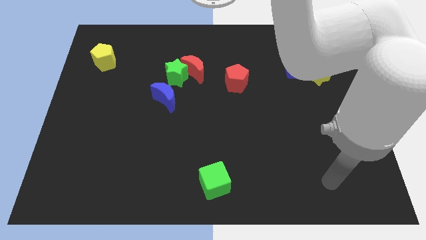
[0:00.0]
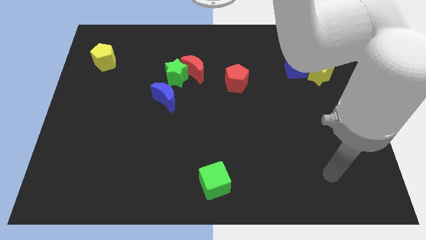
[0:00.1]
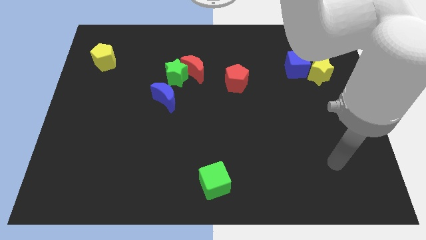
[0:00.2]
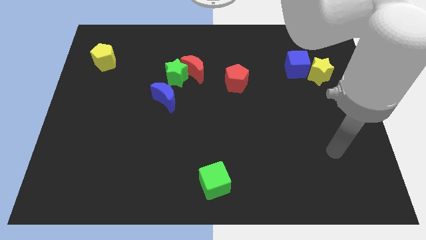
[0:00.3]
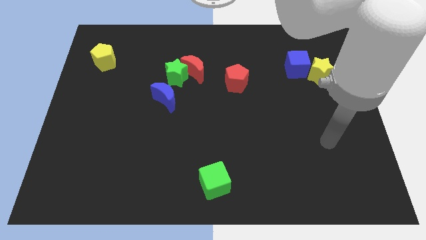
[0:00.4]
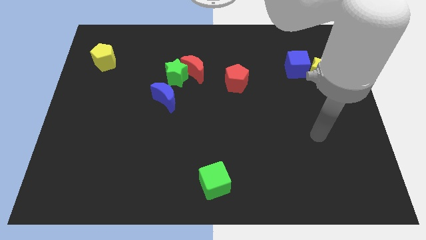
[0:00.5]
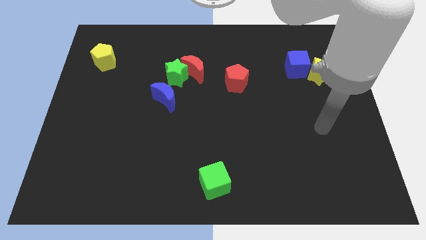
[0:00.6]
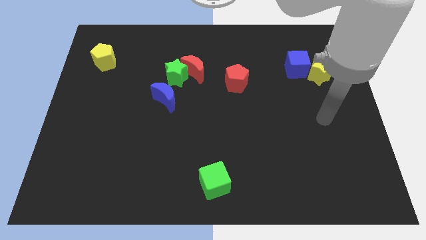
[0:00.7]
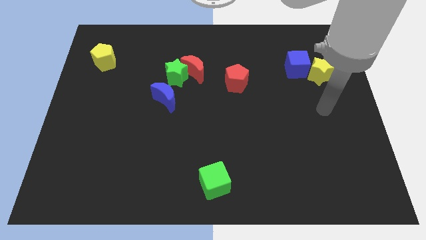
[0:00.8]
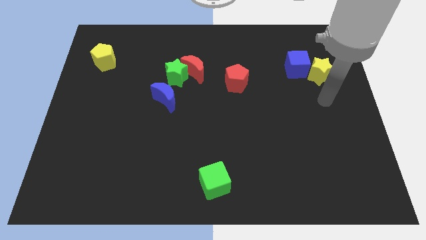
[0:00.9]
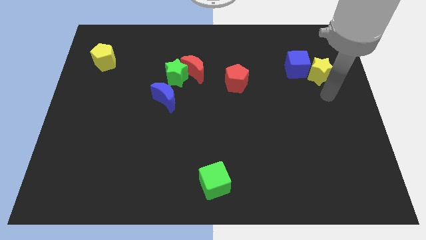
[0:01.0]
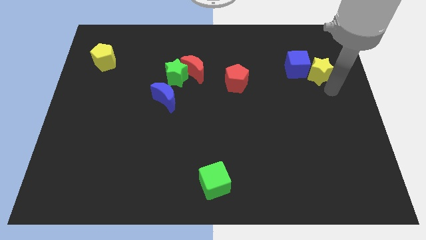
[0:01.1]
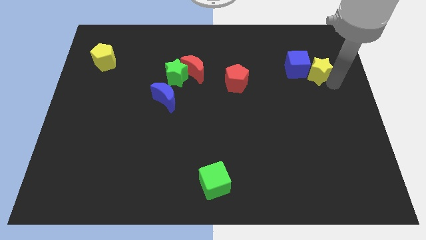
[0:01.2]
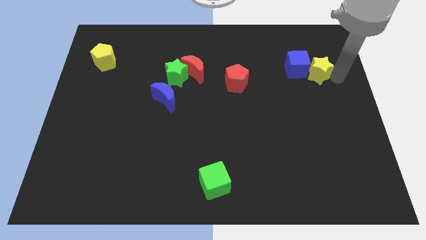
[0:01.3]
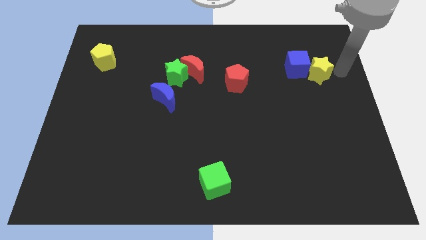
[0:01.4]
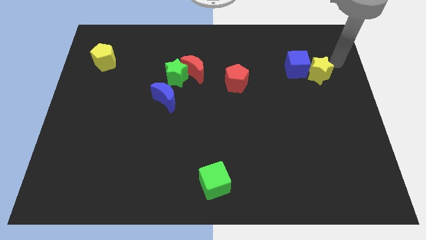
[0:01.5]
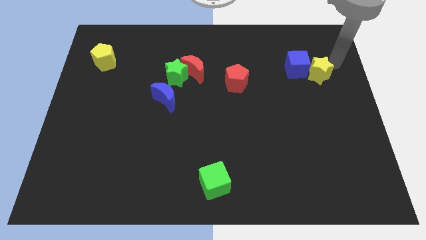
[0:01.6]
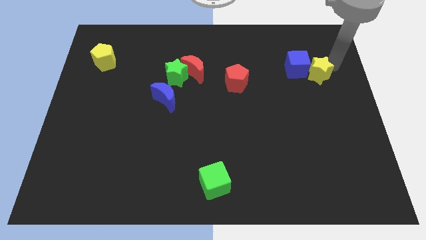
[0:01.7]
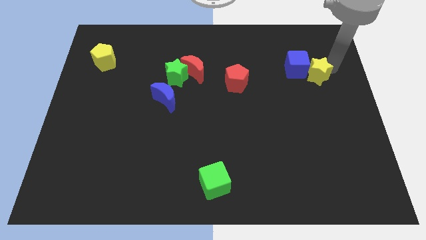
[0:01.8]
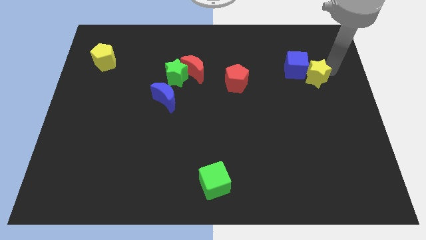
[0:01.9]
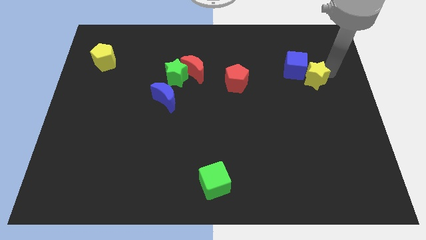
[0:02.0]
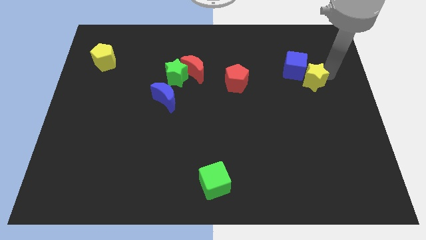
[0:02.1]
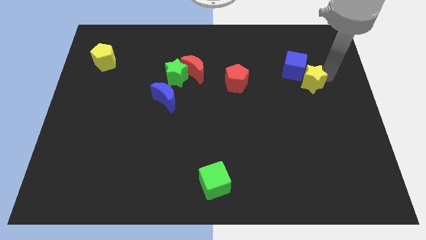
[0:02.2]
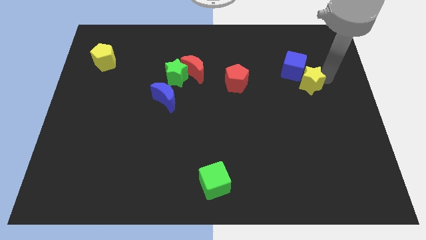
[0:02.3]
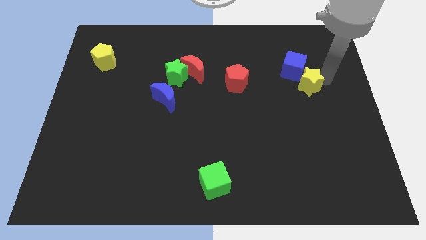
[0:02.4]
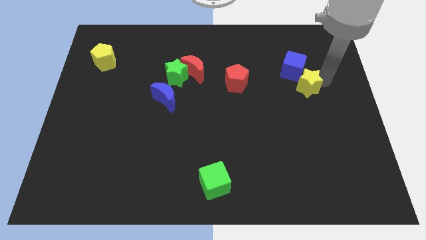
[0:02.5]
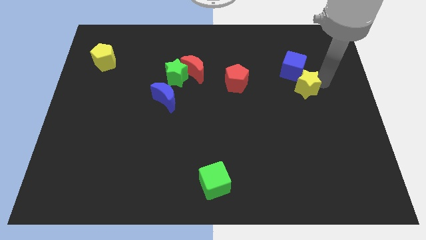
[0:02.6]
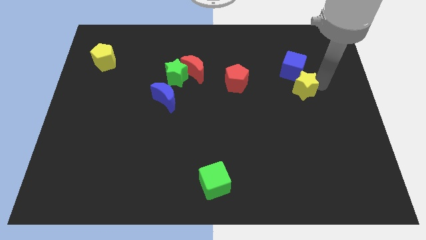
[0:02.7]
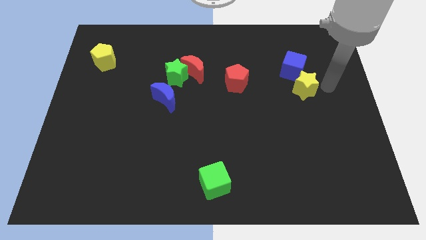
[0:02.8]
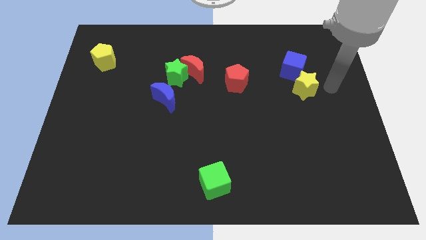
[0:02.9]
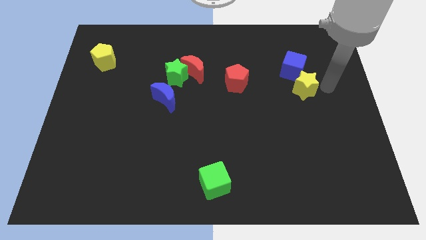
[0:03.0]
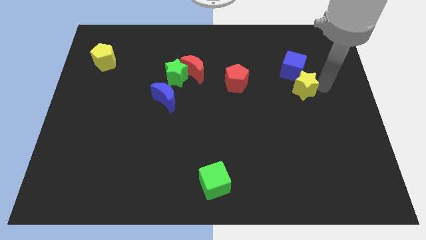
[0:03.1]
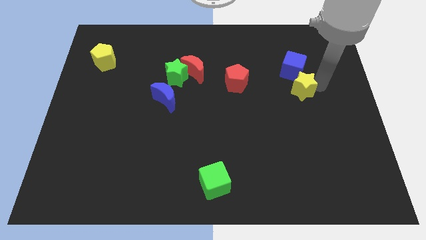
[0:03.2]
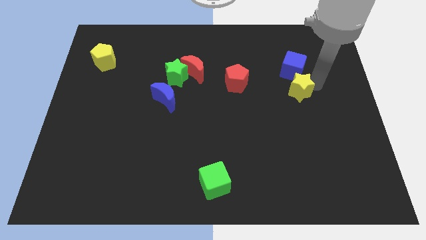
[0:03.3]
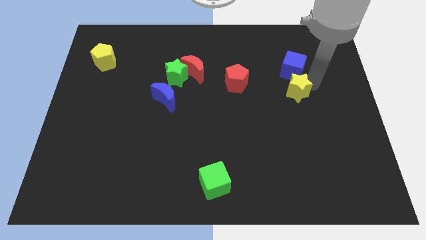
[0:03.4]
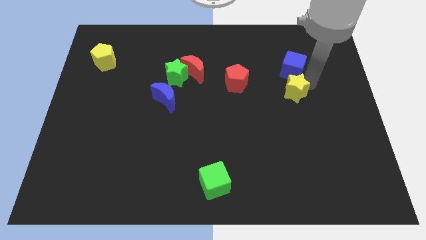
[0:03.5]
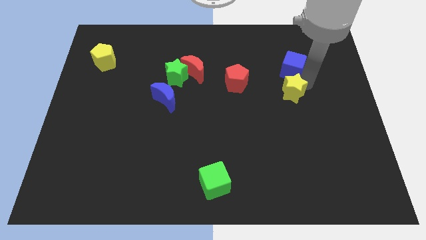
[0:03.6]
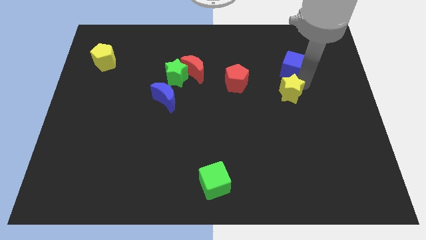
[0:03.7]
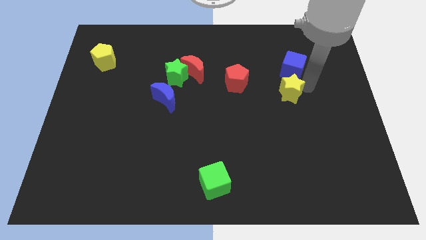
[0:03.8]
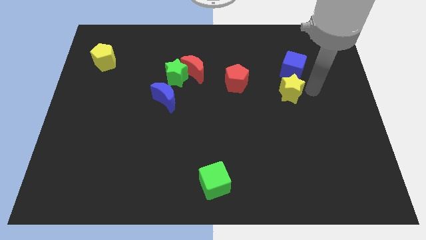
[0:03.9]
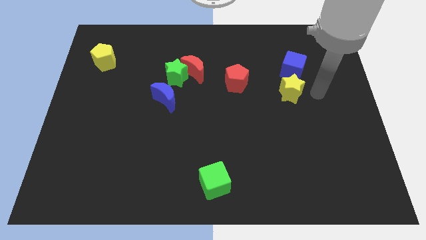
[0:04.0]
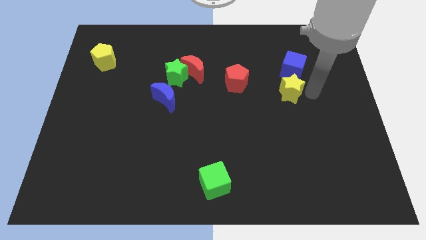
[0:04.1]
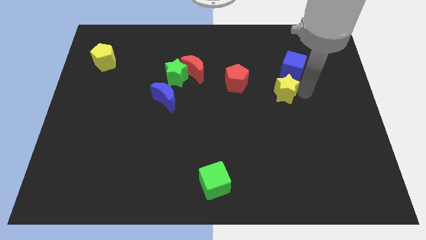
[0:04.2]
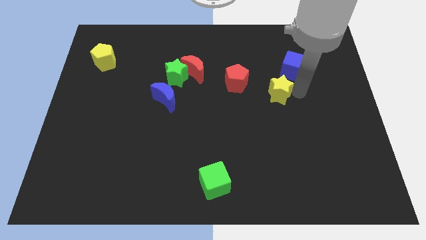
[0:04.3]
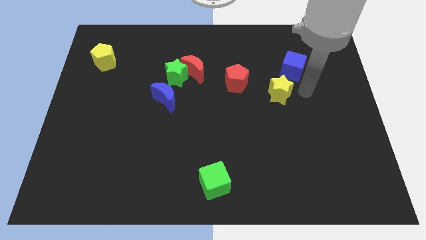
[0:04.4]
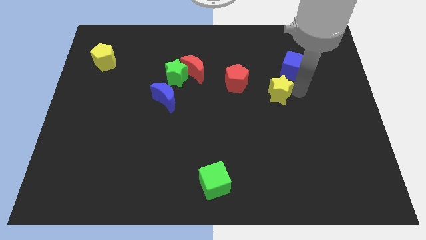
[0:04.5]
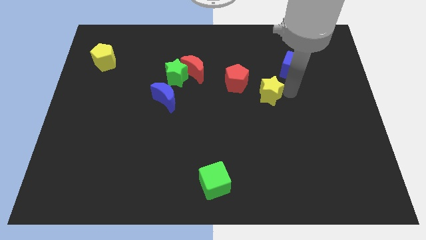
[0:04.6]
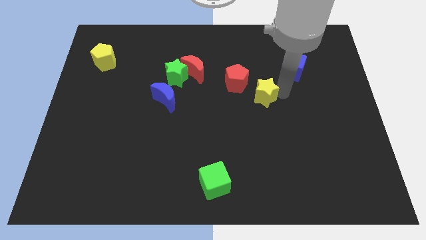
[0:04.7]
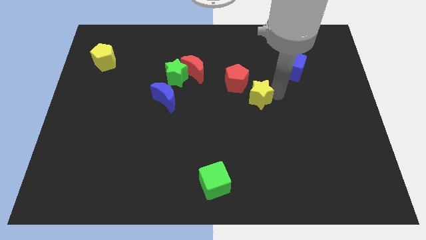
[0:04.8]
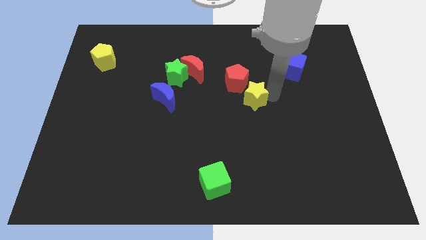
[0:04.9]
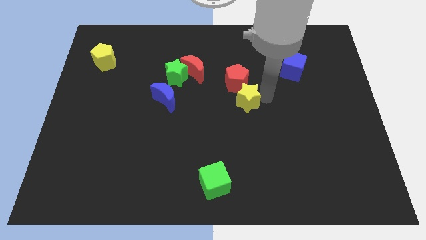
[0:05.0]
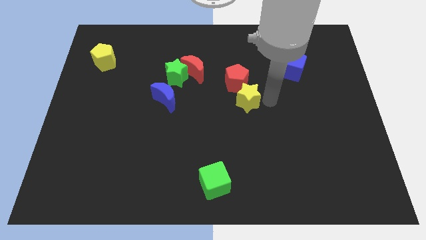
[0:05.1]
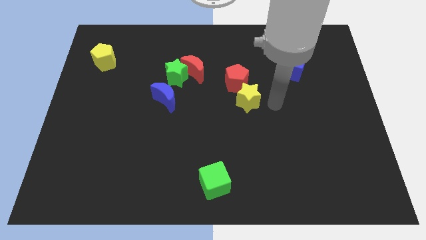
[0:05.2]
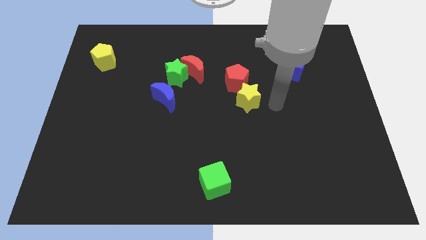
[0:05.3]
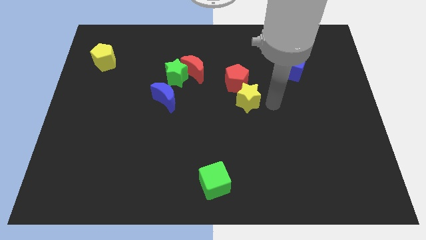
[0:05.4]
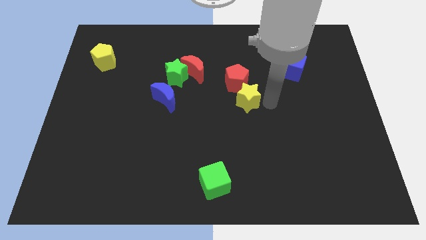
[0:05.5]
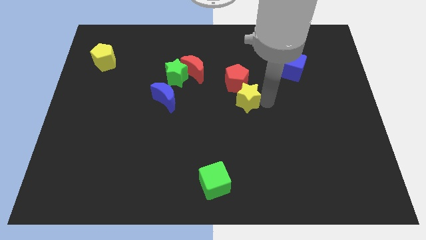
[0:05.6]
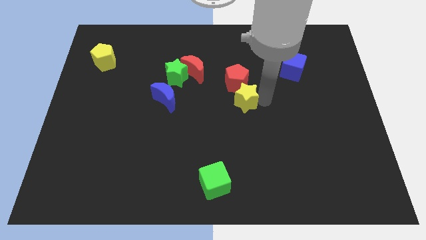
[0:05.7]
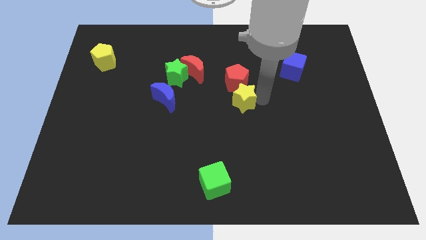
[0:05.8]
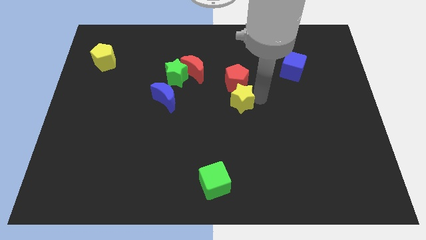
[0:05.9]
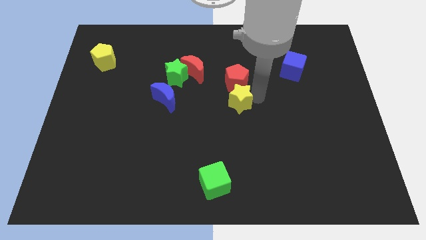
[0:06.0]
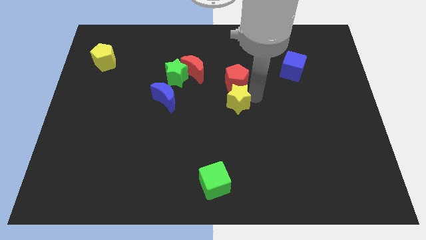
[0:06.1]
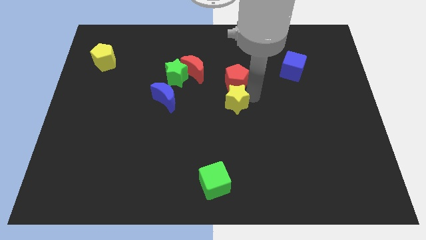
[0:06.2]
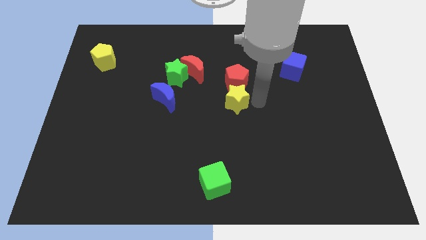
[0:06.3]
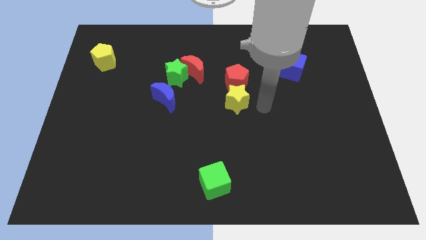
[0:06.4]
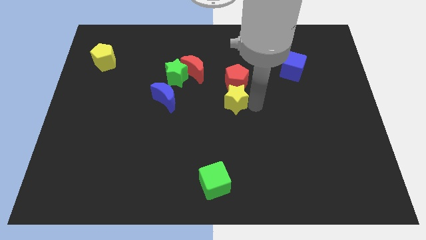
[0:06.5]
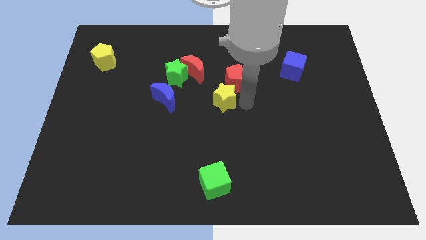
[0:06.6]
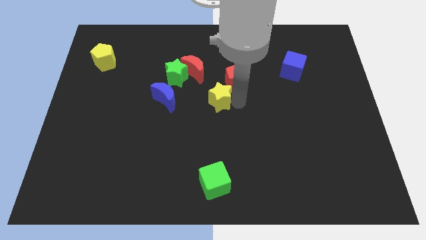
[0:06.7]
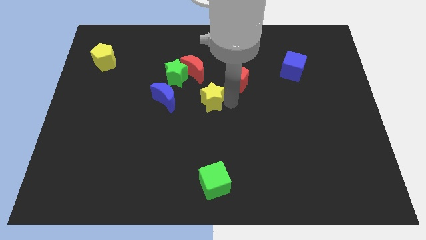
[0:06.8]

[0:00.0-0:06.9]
push the yellow star diagonally down and to the right of the green star

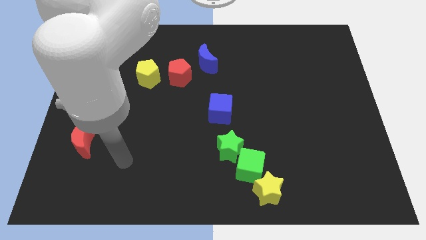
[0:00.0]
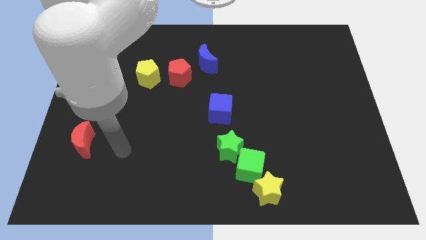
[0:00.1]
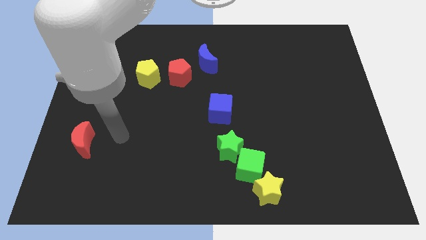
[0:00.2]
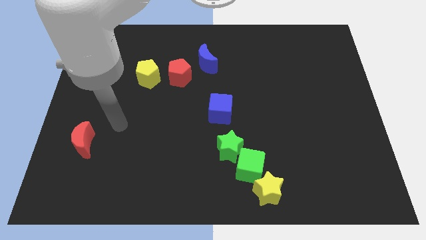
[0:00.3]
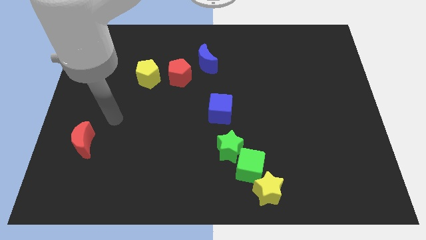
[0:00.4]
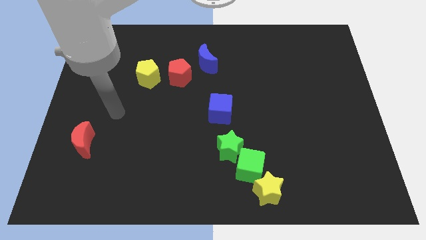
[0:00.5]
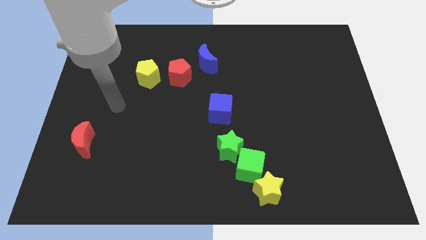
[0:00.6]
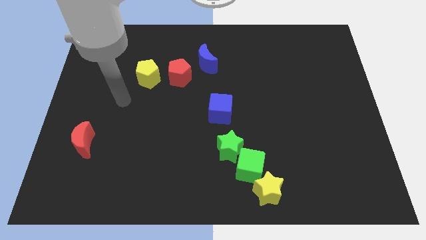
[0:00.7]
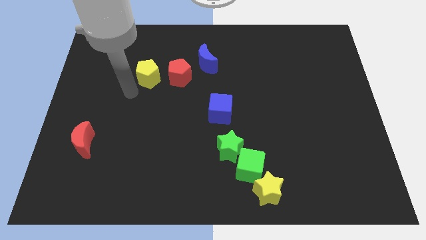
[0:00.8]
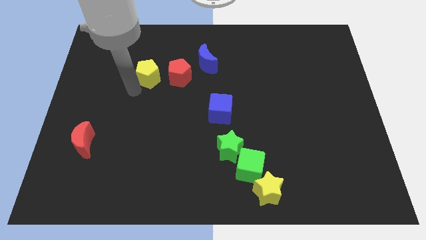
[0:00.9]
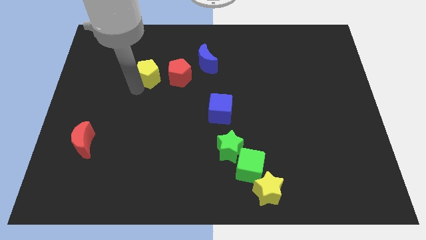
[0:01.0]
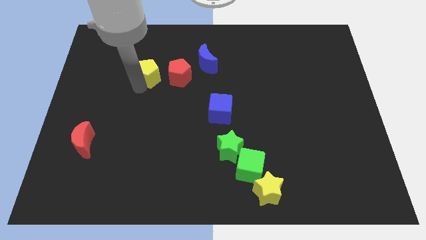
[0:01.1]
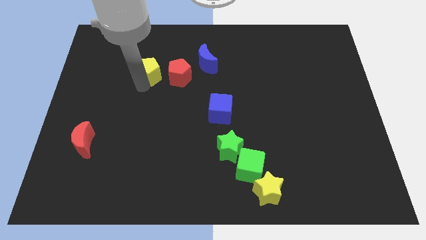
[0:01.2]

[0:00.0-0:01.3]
slide the yellow pentagon to the left side of the blue moon
